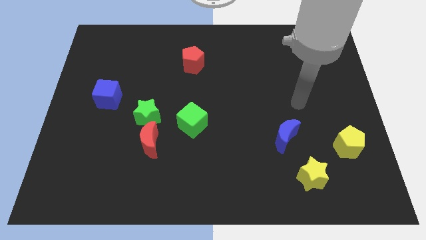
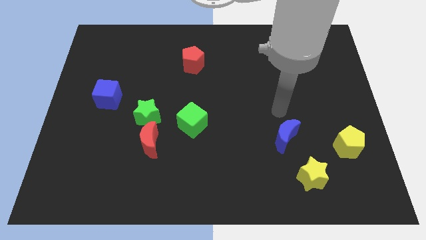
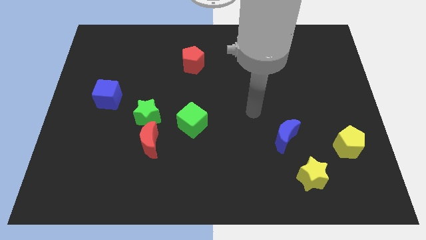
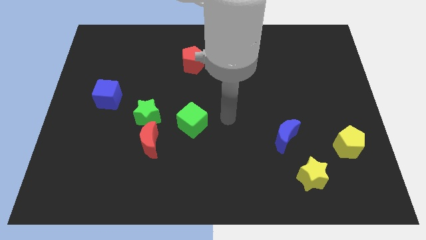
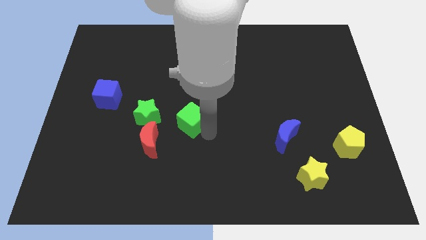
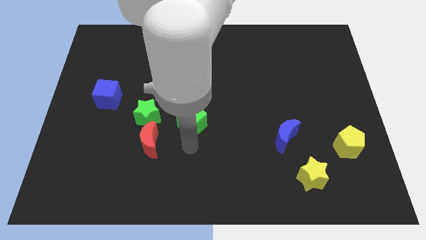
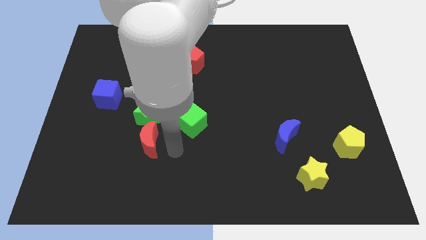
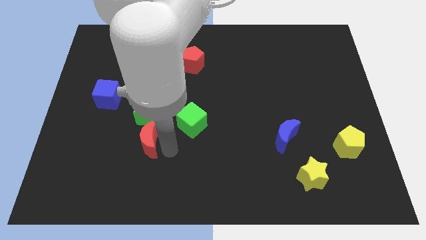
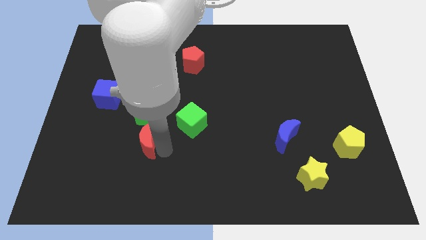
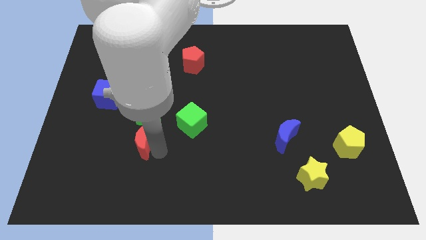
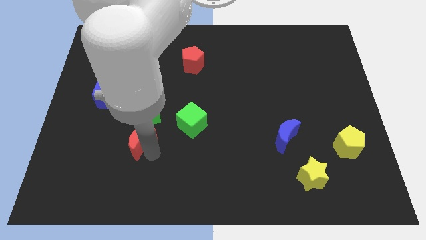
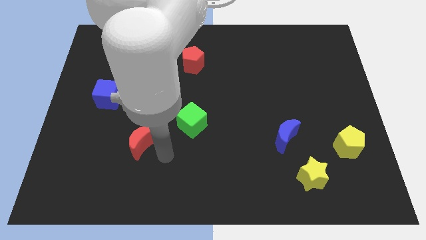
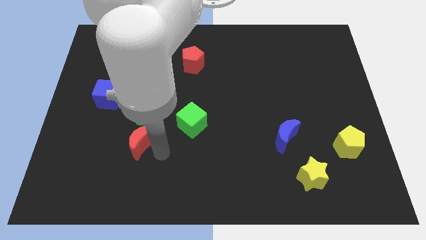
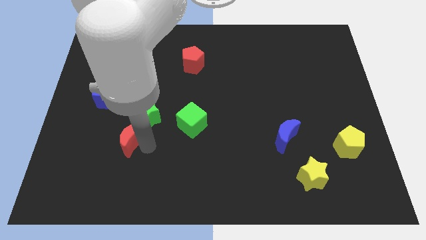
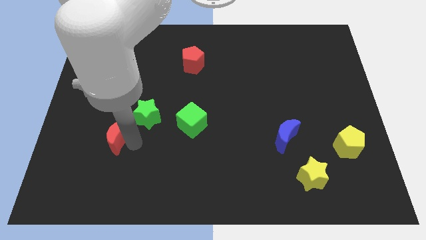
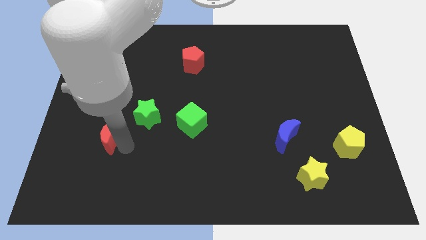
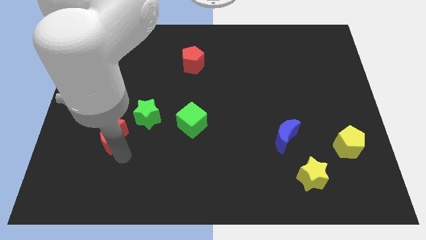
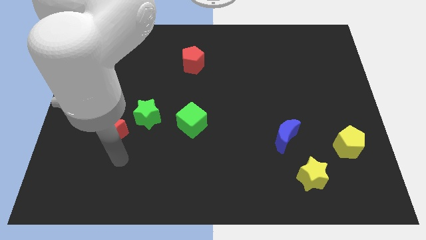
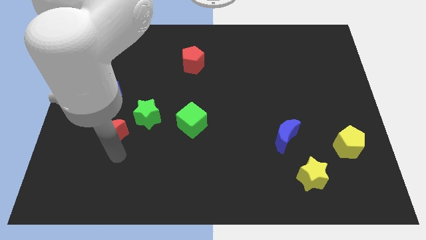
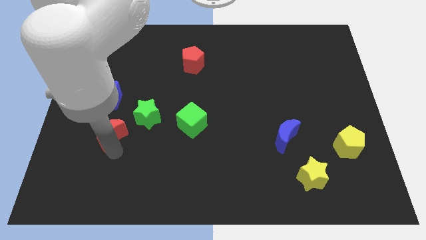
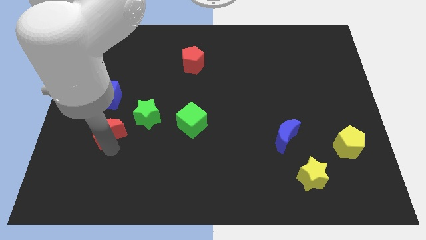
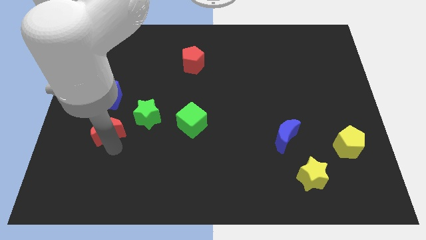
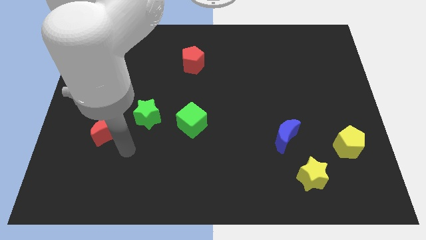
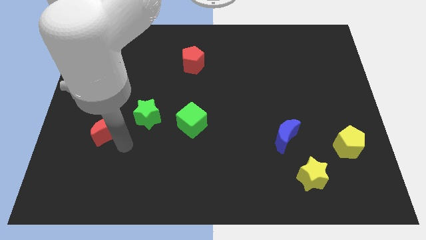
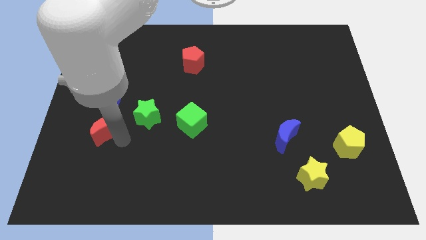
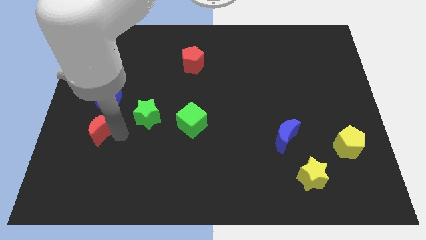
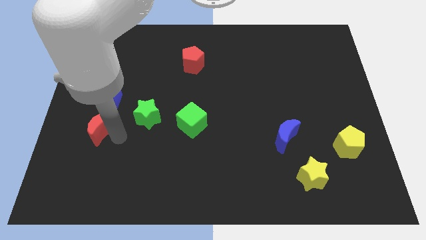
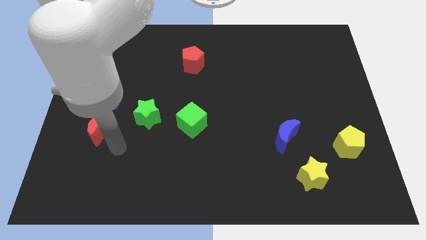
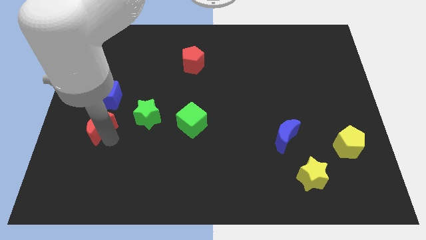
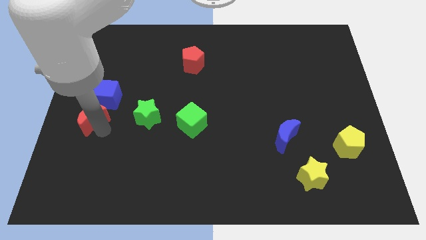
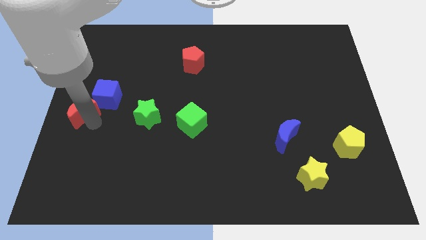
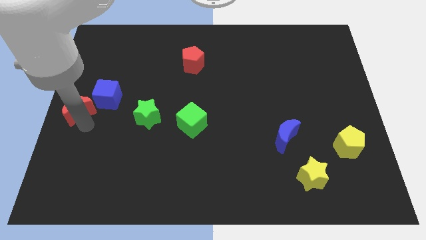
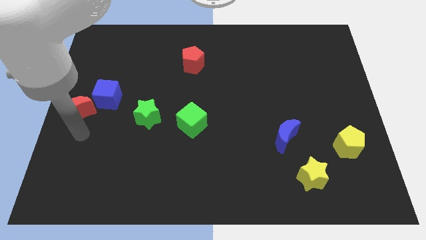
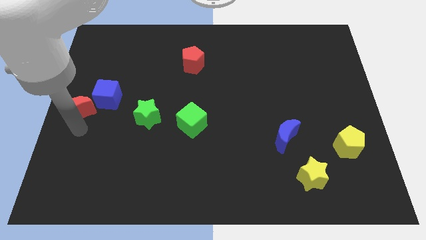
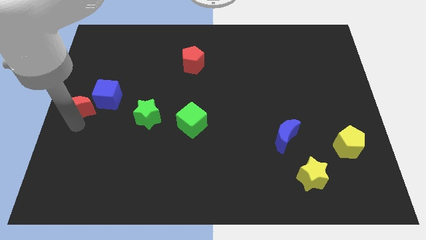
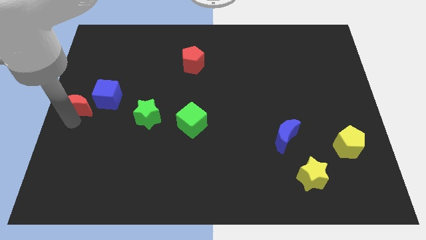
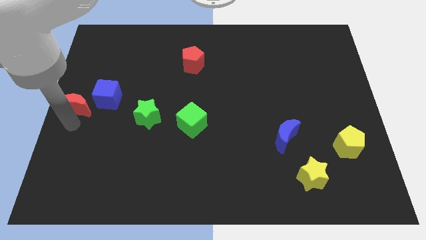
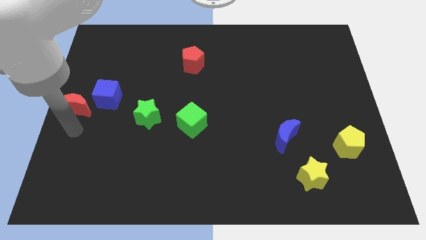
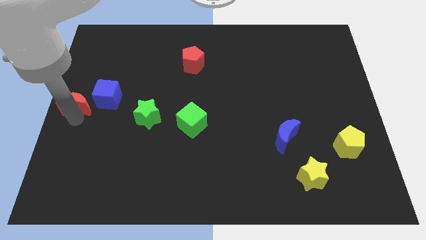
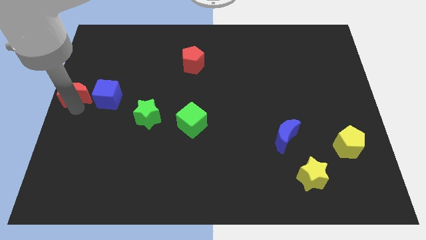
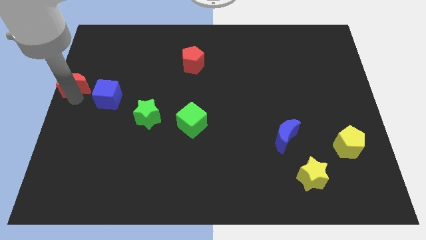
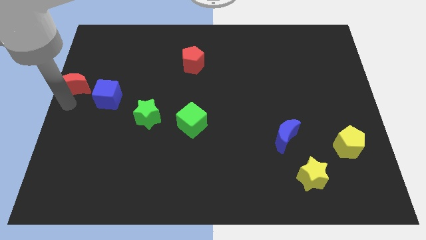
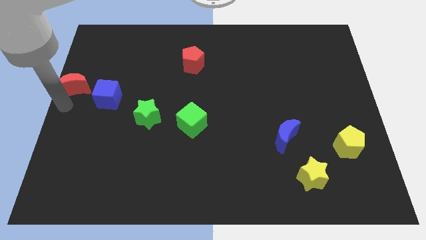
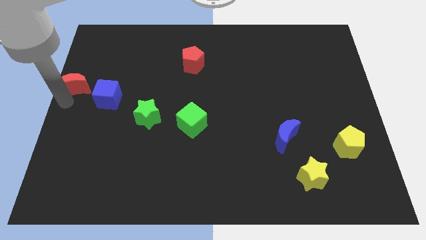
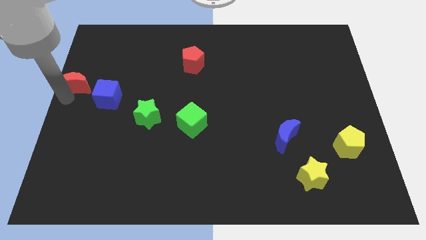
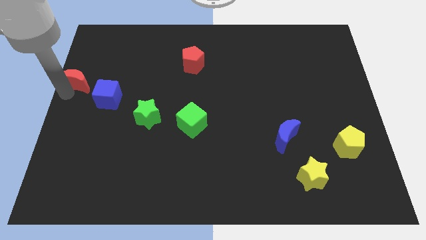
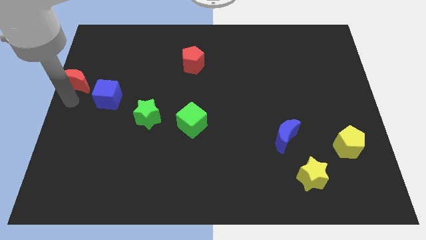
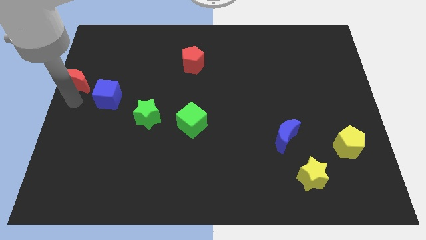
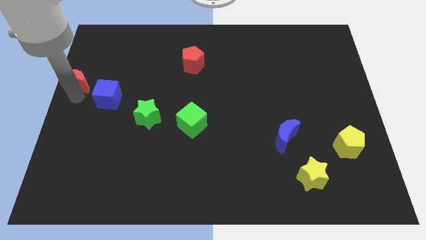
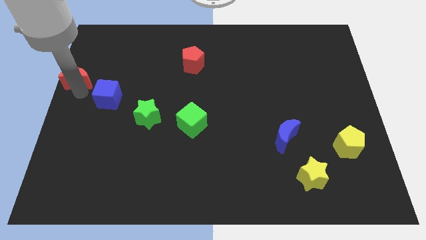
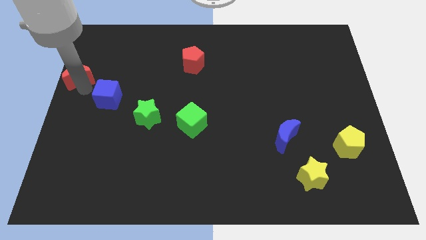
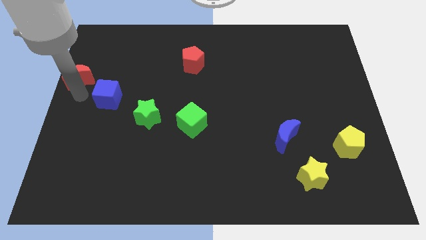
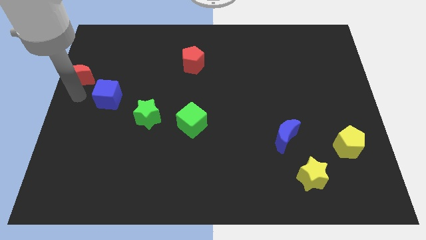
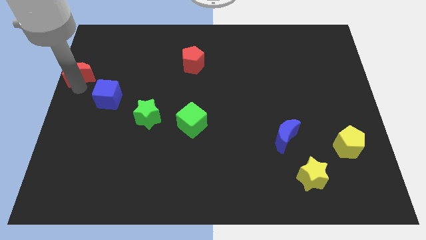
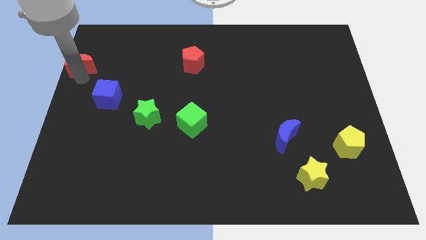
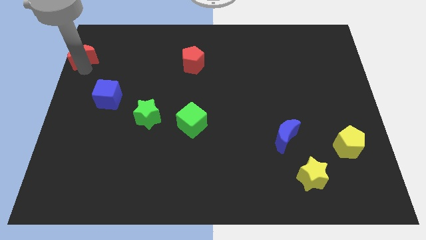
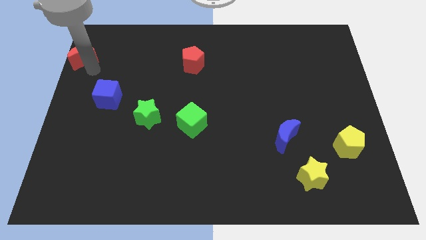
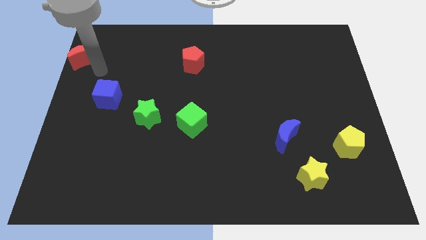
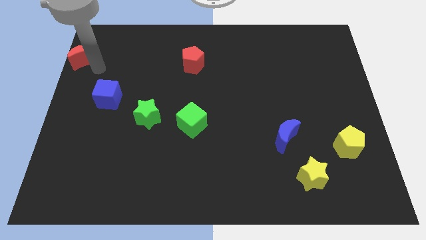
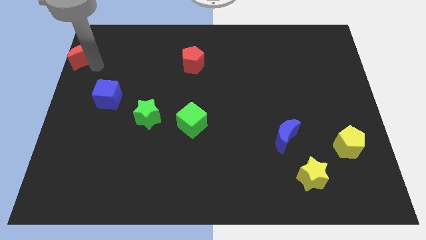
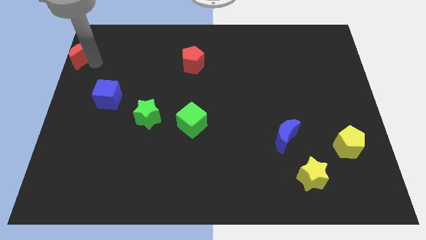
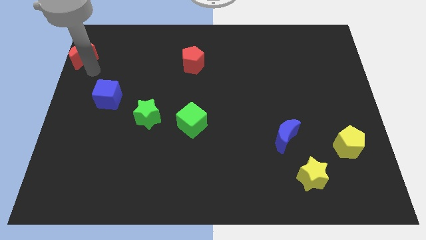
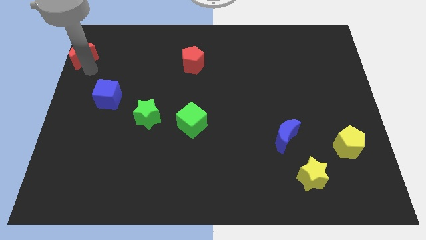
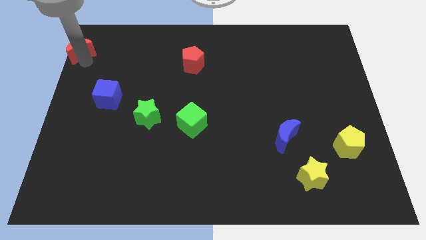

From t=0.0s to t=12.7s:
move the red moon to the top left corner
